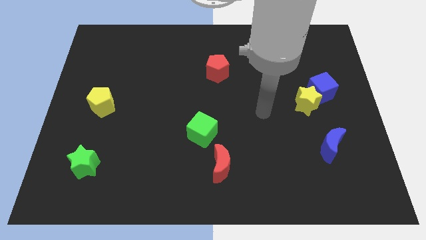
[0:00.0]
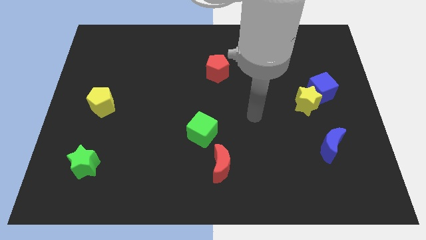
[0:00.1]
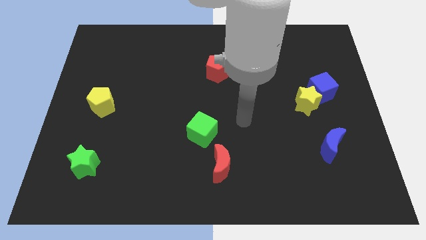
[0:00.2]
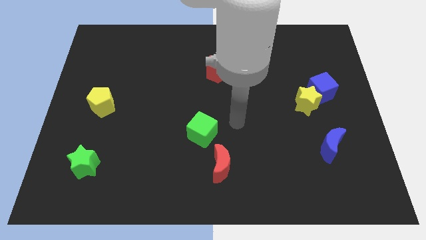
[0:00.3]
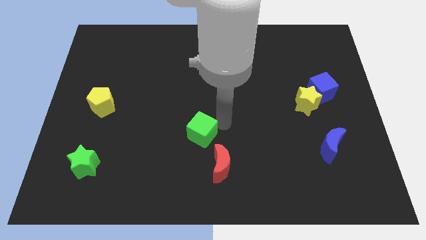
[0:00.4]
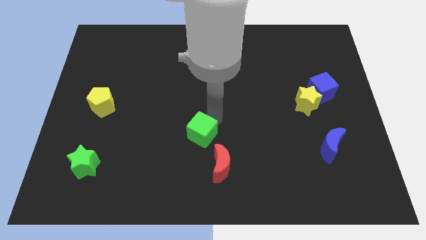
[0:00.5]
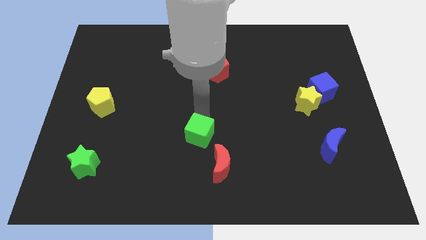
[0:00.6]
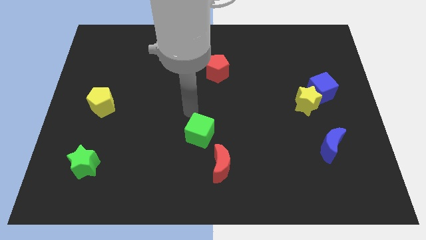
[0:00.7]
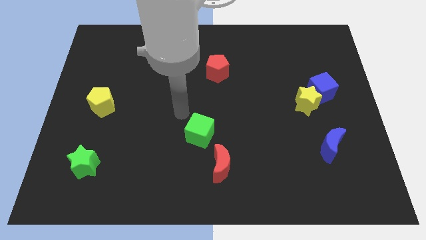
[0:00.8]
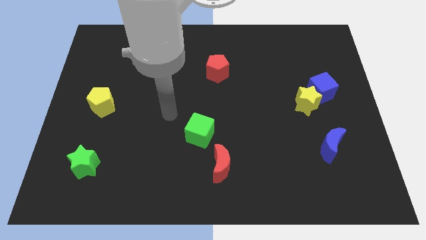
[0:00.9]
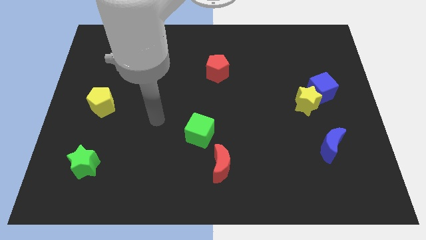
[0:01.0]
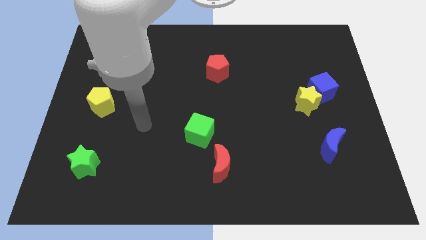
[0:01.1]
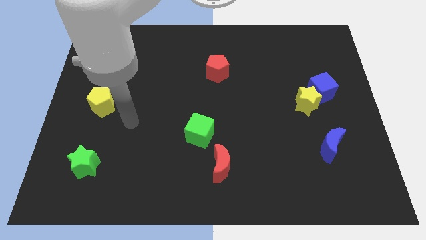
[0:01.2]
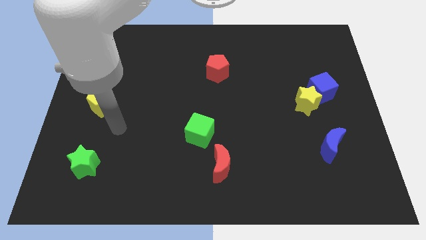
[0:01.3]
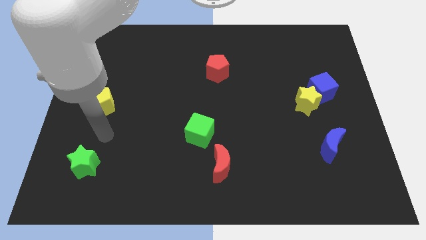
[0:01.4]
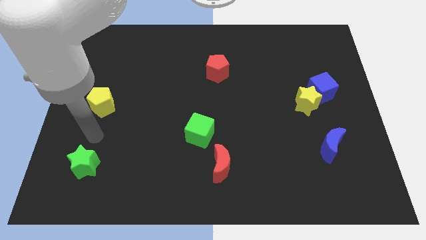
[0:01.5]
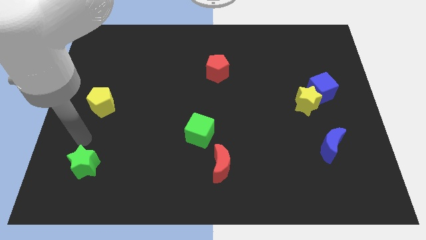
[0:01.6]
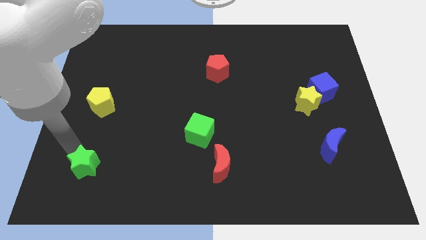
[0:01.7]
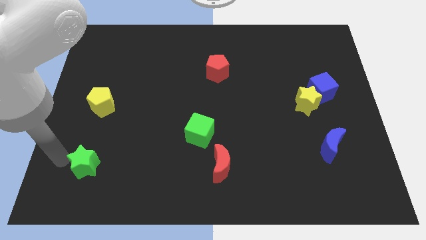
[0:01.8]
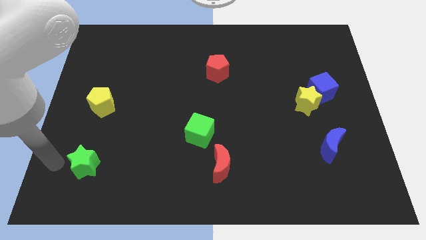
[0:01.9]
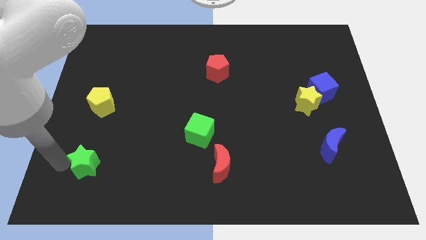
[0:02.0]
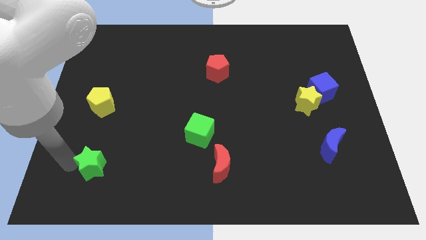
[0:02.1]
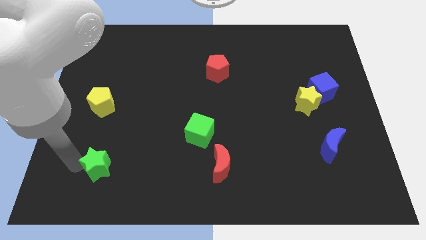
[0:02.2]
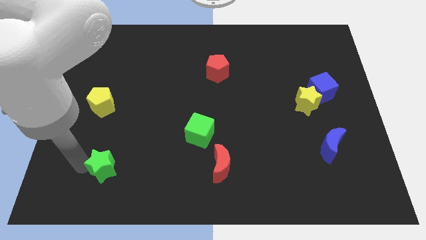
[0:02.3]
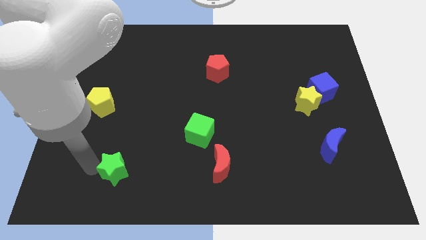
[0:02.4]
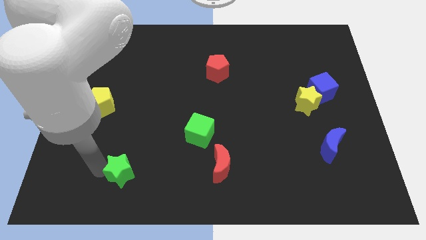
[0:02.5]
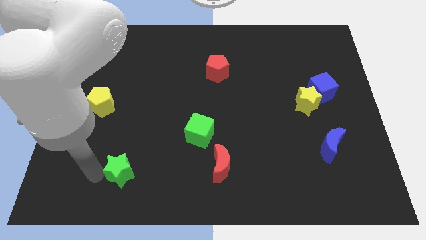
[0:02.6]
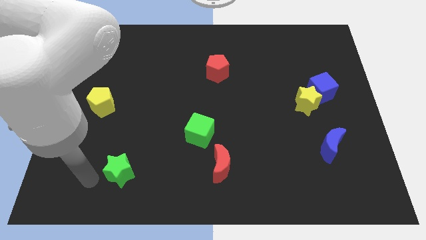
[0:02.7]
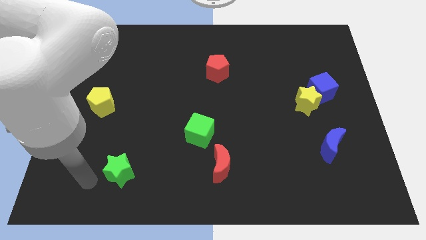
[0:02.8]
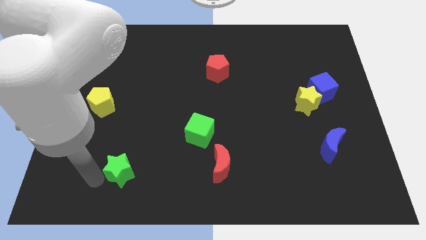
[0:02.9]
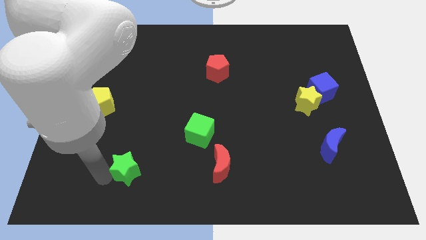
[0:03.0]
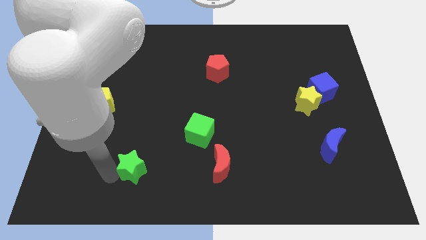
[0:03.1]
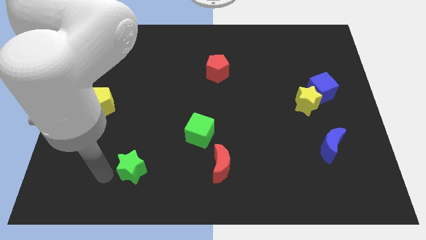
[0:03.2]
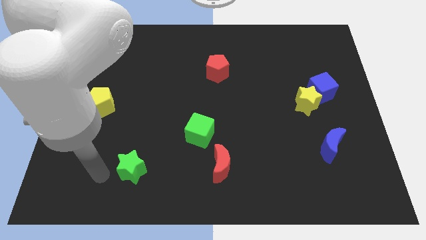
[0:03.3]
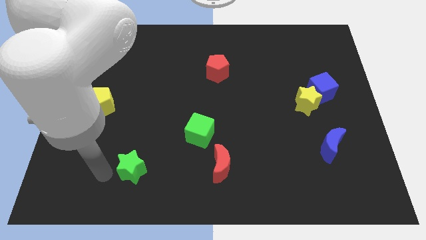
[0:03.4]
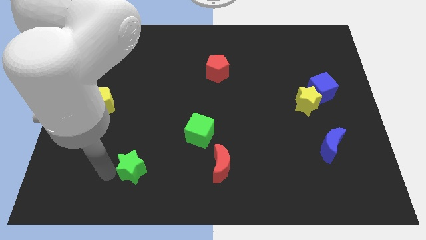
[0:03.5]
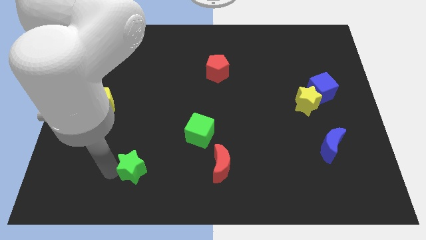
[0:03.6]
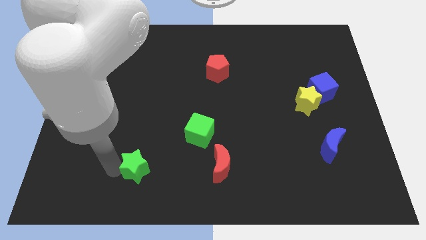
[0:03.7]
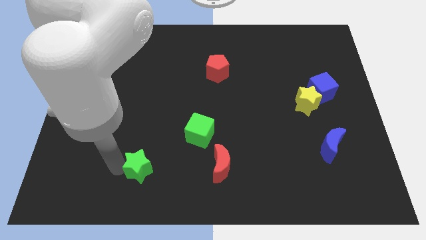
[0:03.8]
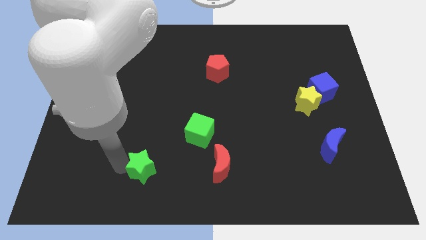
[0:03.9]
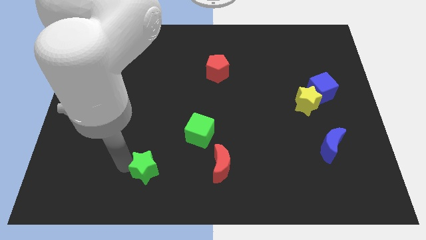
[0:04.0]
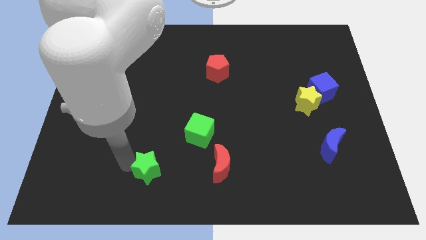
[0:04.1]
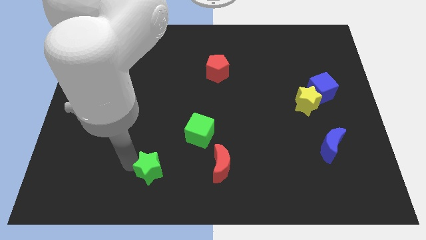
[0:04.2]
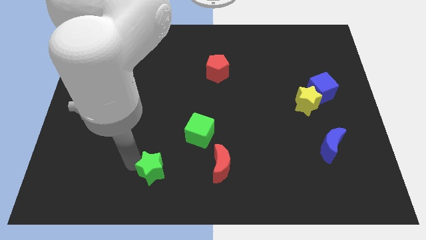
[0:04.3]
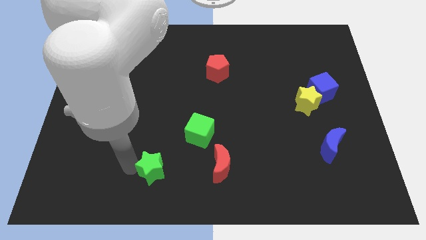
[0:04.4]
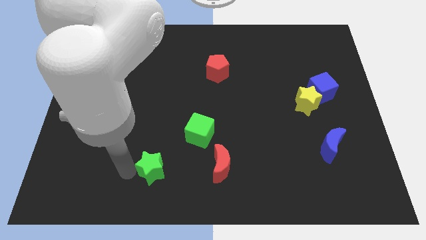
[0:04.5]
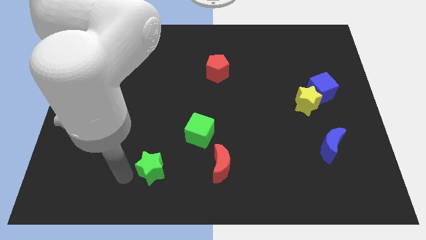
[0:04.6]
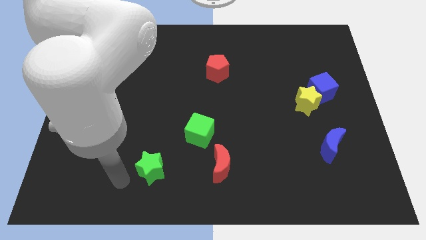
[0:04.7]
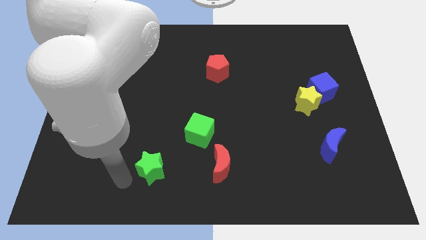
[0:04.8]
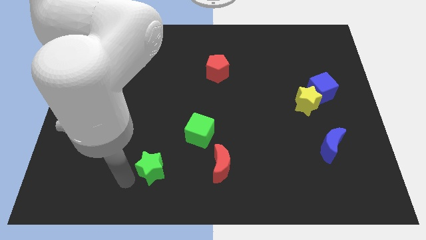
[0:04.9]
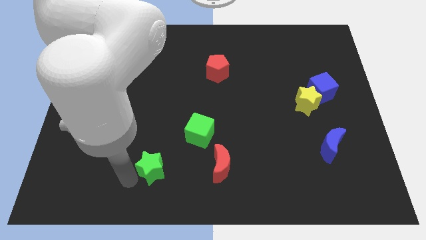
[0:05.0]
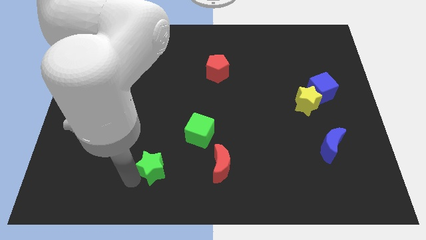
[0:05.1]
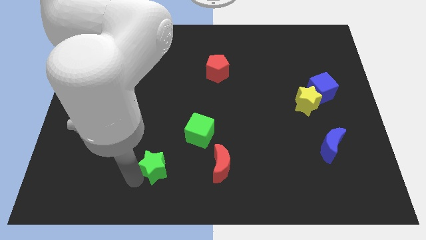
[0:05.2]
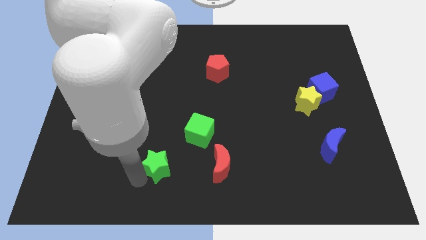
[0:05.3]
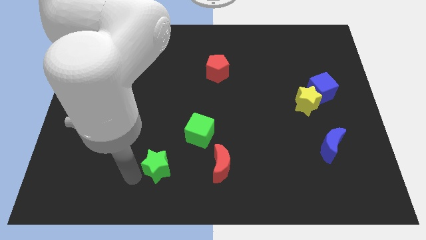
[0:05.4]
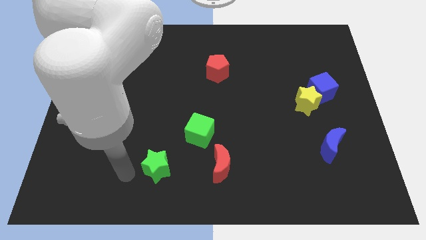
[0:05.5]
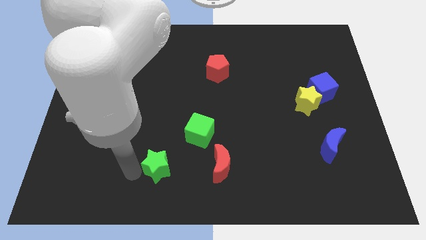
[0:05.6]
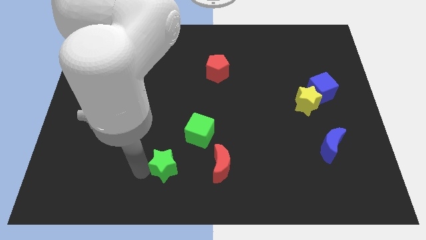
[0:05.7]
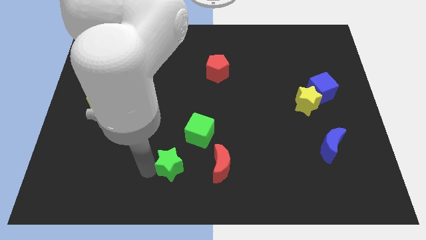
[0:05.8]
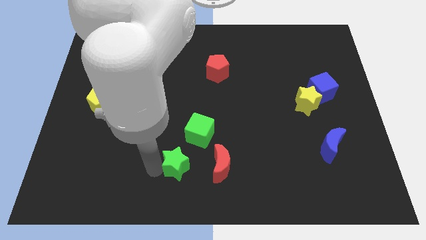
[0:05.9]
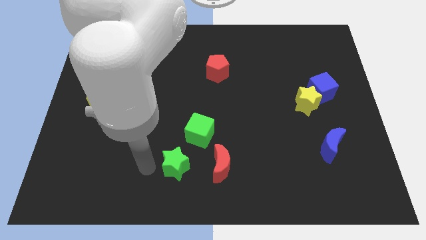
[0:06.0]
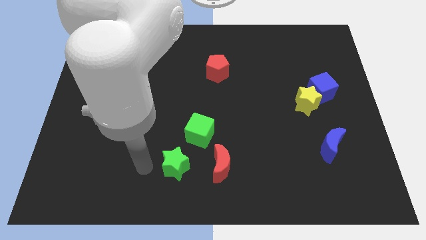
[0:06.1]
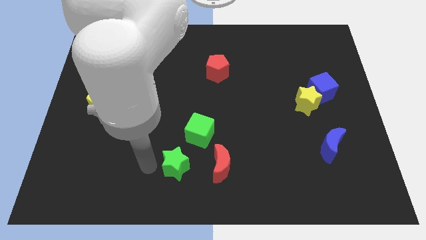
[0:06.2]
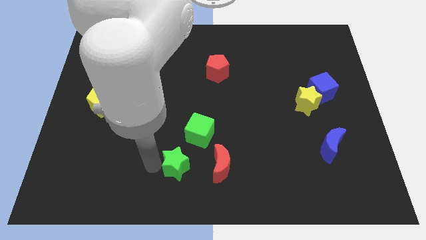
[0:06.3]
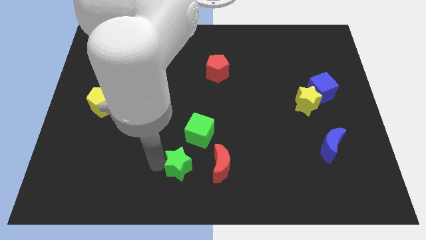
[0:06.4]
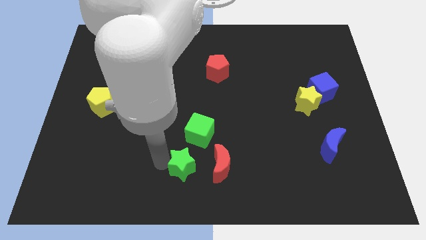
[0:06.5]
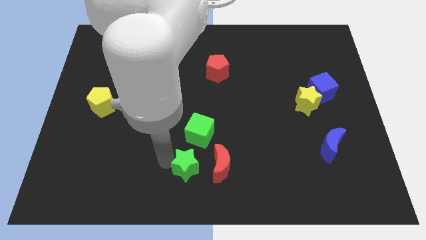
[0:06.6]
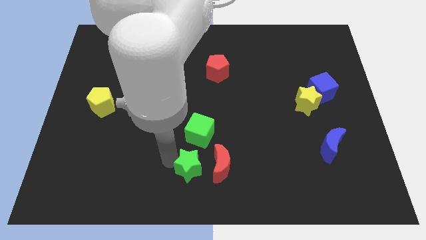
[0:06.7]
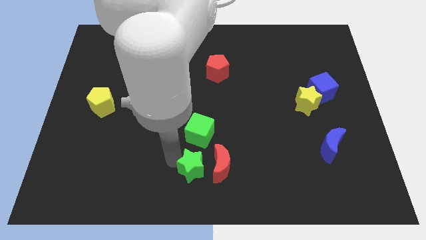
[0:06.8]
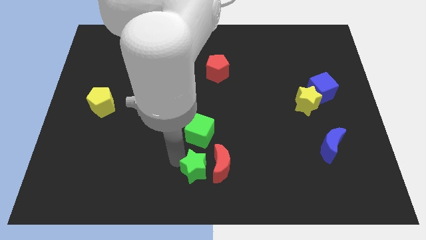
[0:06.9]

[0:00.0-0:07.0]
slide the green star towards the red moon

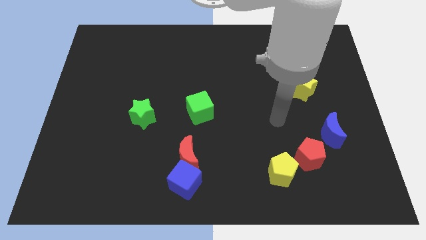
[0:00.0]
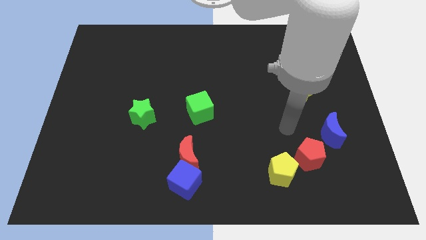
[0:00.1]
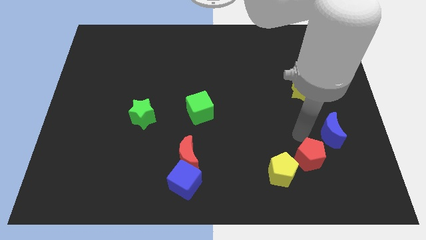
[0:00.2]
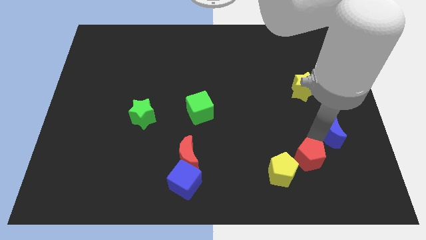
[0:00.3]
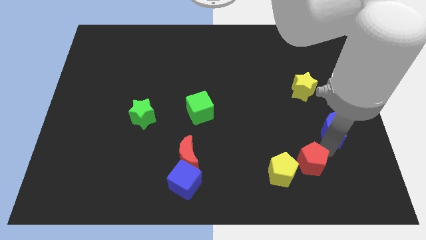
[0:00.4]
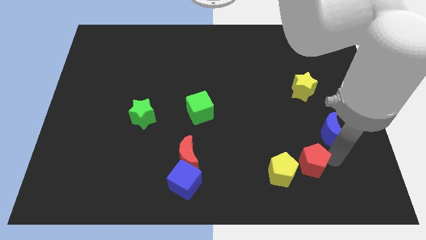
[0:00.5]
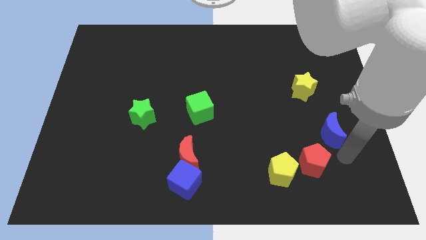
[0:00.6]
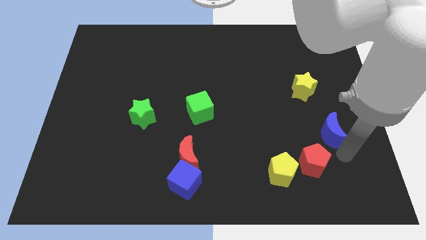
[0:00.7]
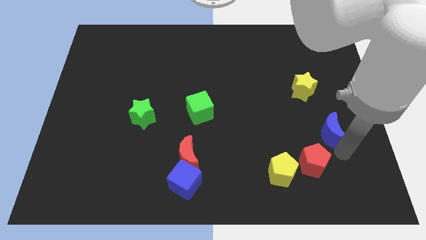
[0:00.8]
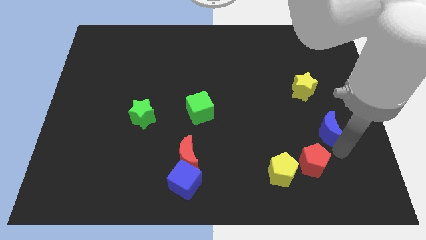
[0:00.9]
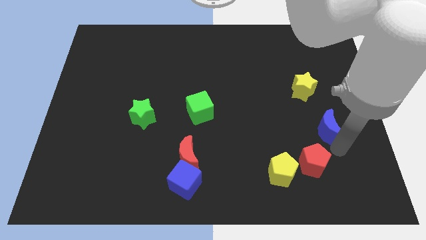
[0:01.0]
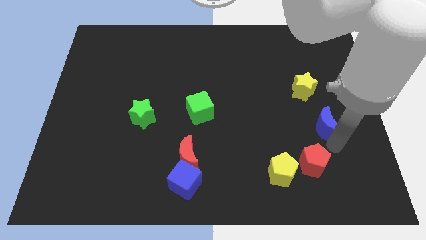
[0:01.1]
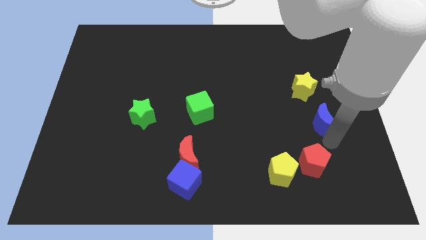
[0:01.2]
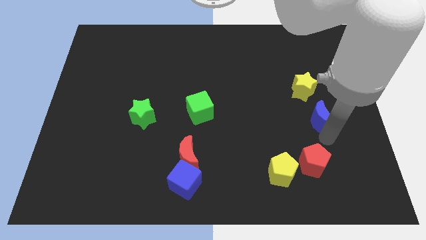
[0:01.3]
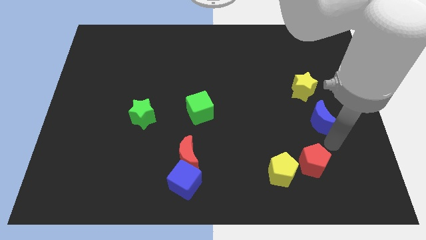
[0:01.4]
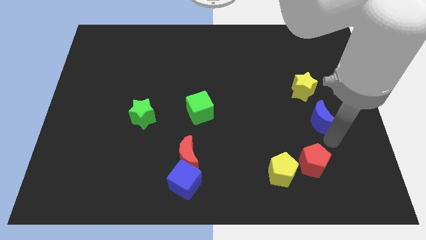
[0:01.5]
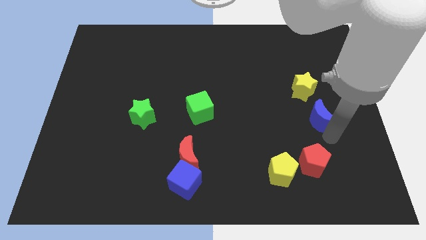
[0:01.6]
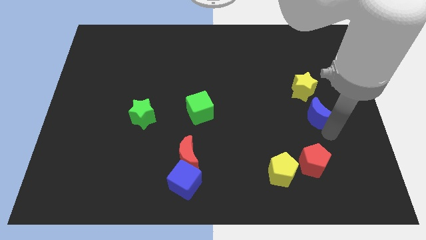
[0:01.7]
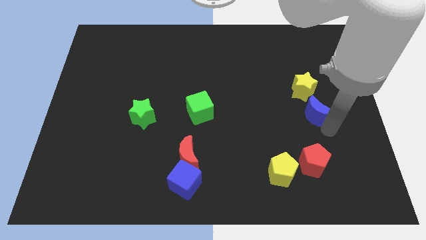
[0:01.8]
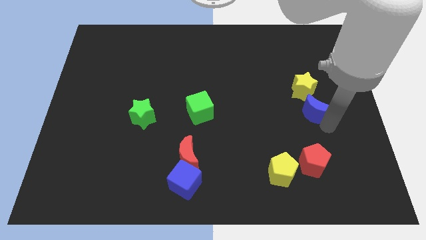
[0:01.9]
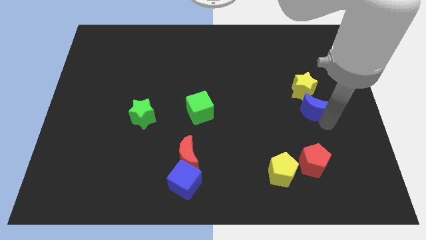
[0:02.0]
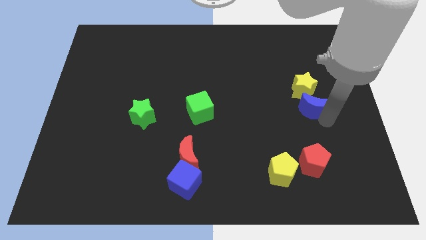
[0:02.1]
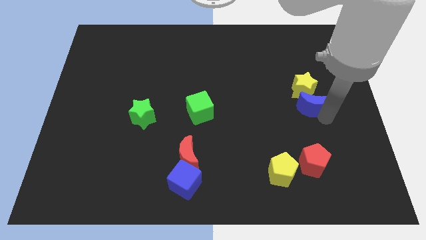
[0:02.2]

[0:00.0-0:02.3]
push the blue moon towards the yellow star
